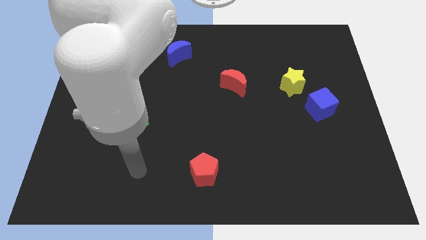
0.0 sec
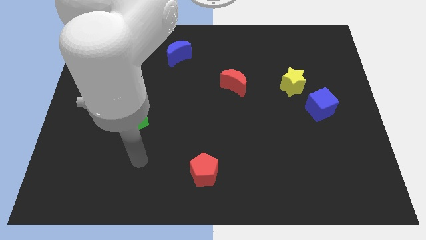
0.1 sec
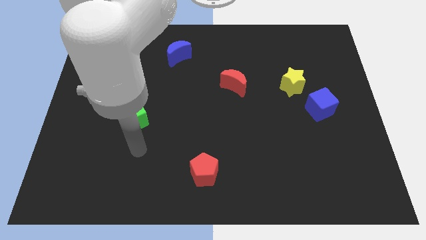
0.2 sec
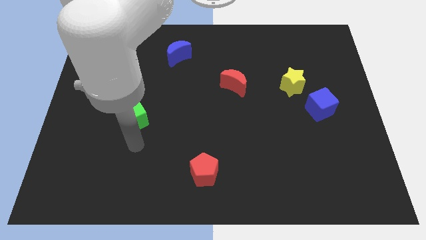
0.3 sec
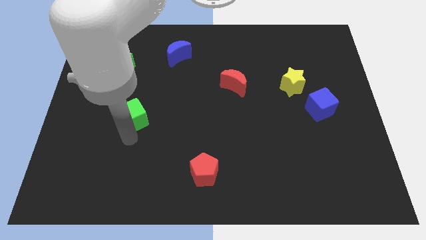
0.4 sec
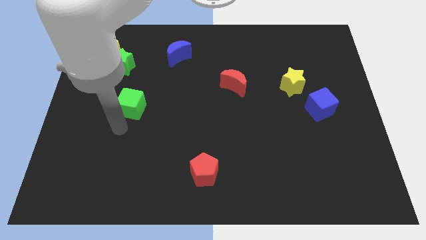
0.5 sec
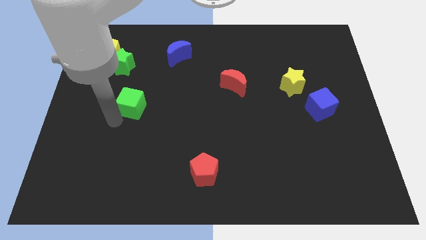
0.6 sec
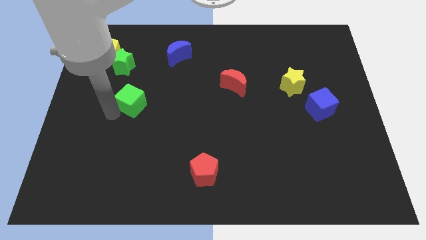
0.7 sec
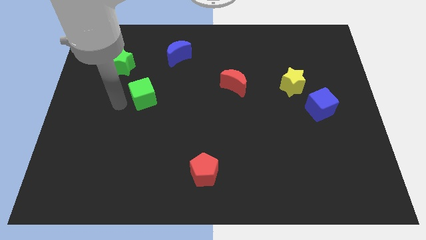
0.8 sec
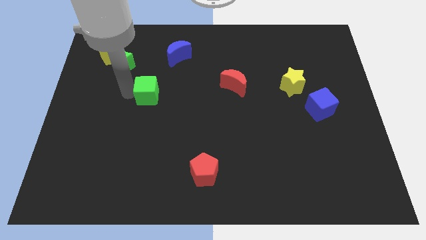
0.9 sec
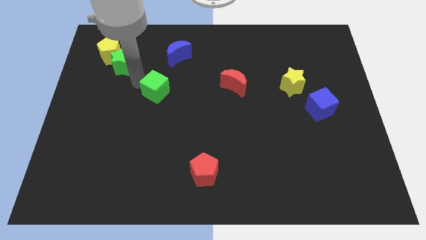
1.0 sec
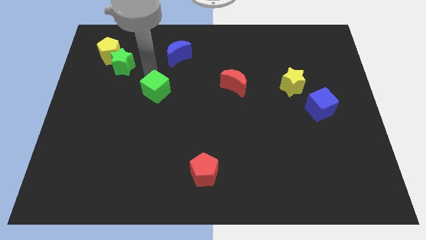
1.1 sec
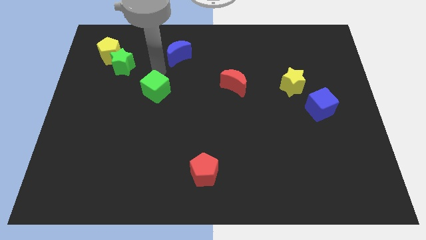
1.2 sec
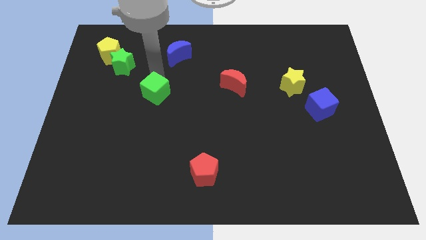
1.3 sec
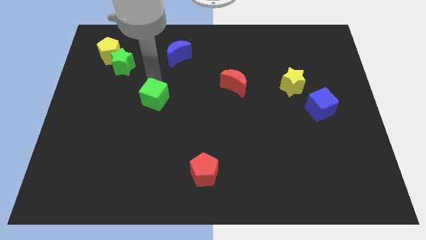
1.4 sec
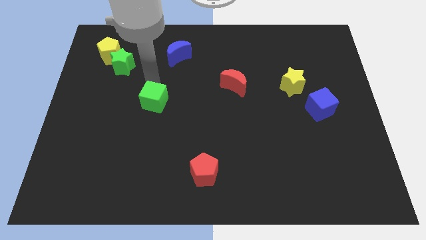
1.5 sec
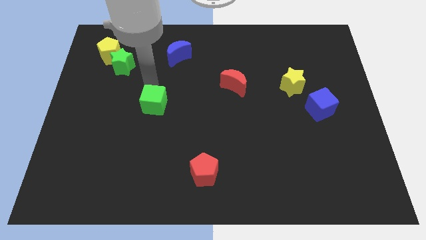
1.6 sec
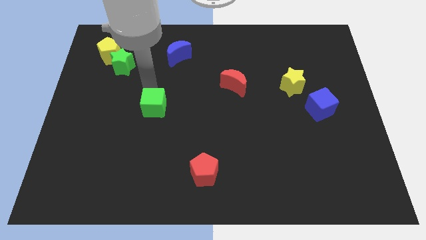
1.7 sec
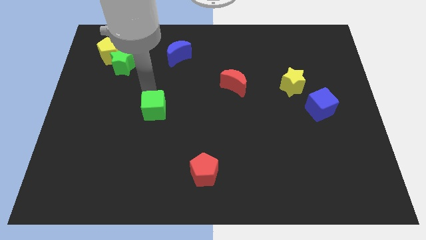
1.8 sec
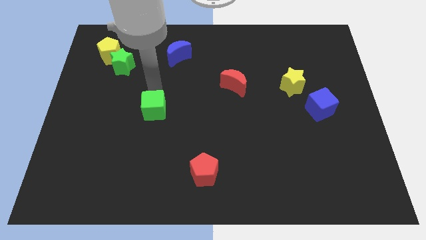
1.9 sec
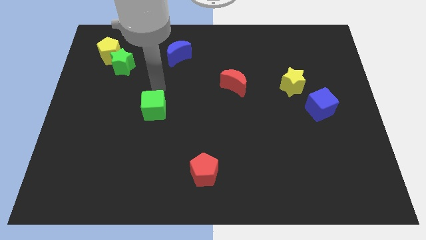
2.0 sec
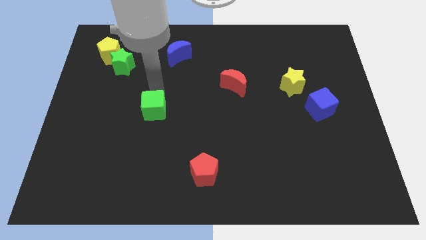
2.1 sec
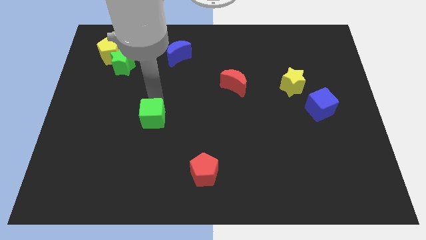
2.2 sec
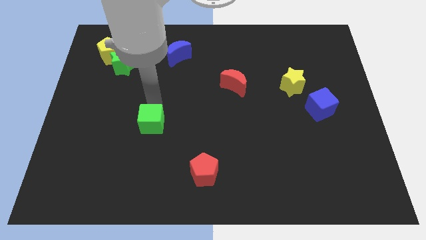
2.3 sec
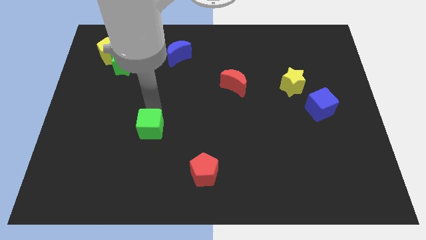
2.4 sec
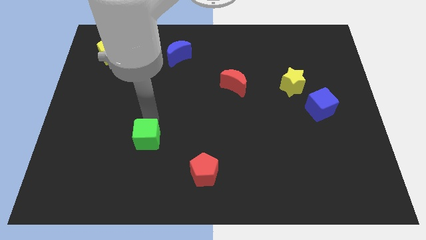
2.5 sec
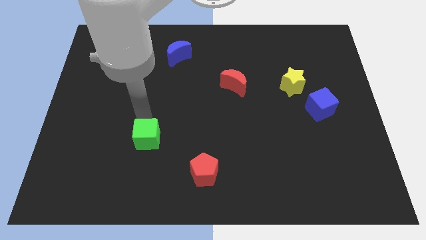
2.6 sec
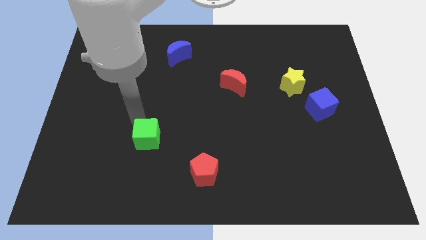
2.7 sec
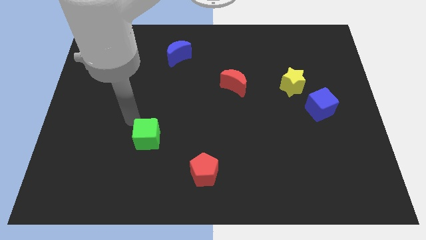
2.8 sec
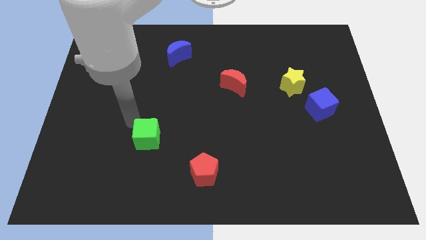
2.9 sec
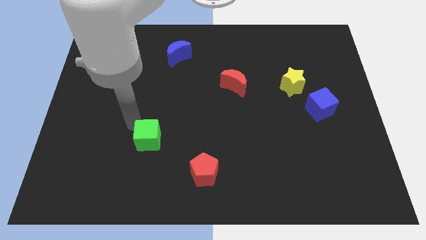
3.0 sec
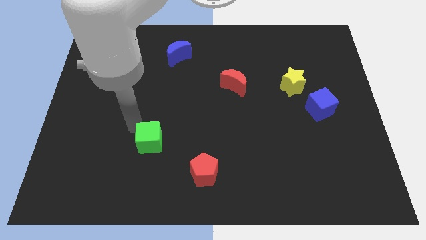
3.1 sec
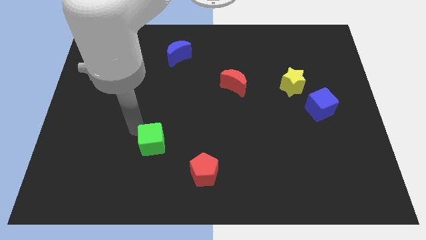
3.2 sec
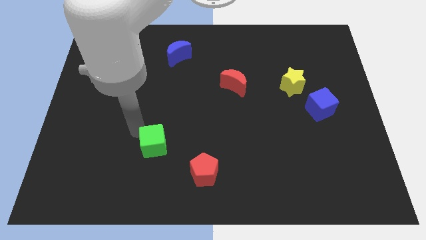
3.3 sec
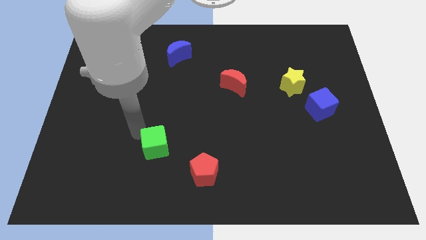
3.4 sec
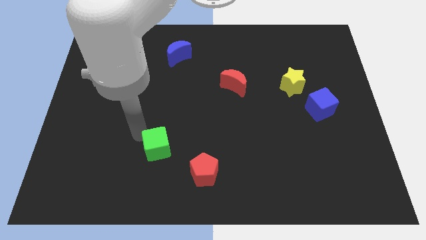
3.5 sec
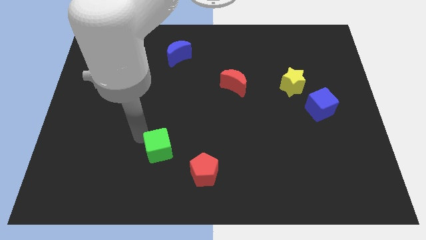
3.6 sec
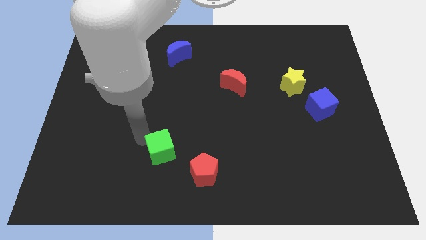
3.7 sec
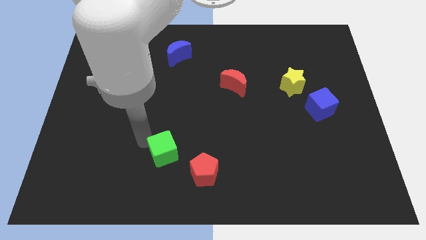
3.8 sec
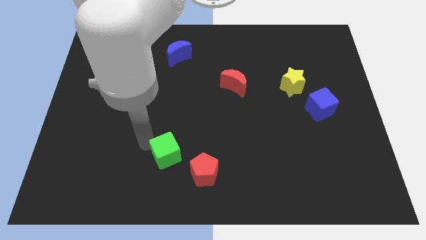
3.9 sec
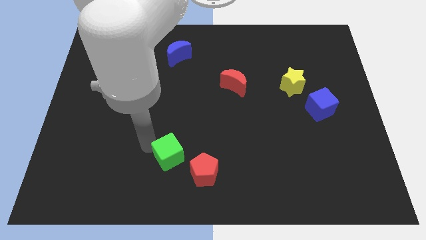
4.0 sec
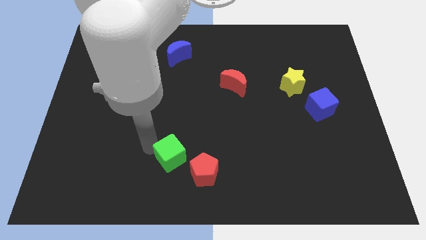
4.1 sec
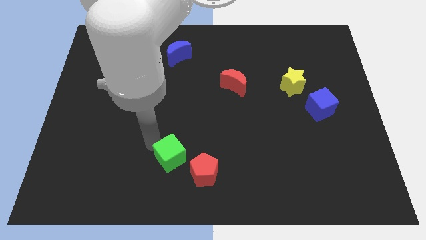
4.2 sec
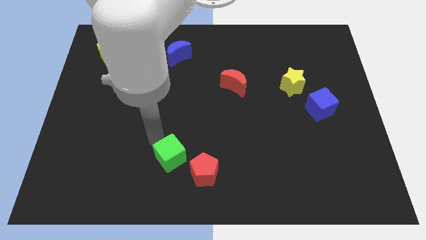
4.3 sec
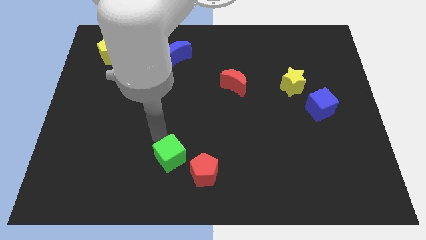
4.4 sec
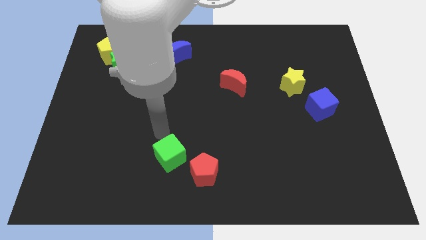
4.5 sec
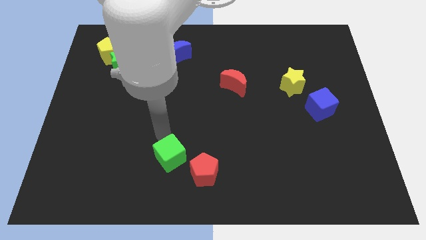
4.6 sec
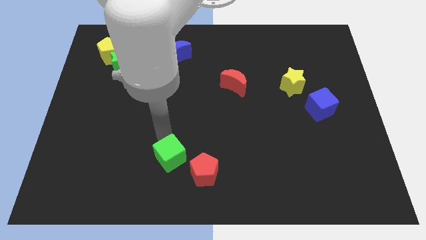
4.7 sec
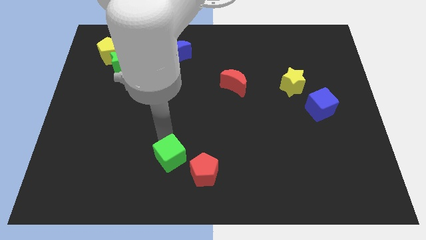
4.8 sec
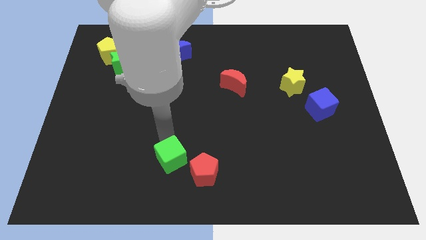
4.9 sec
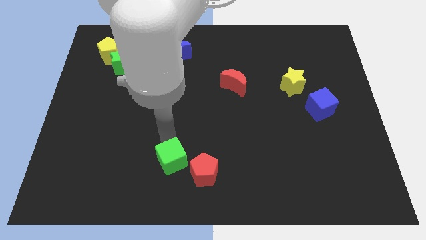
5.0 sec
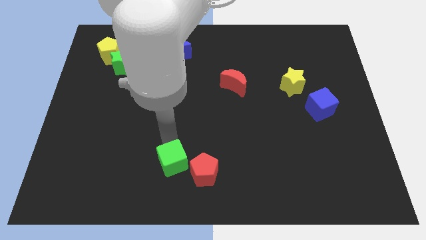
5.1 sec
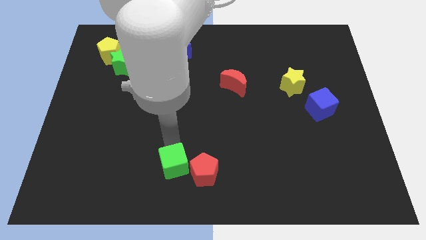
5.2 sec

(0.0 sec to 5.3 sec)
put the green cube to the bottom
